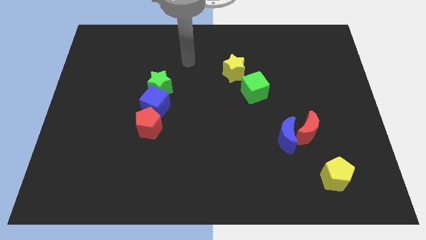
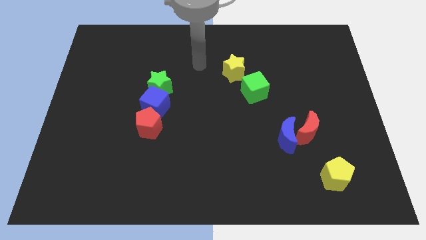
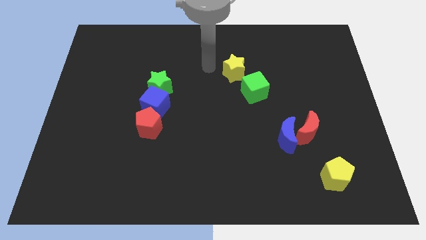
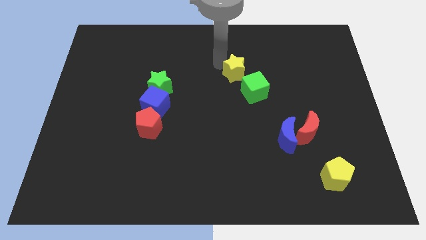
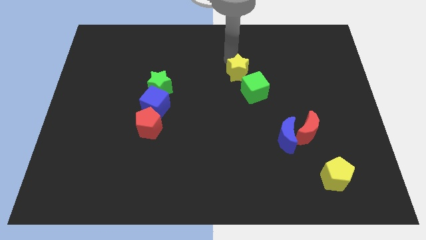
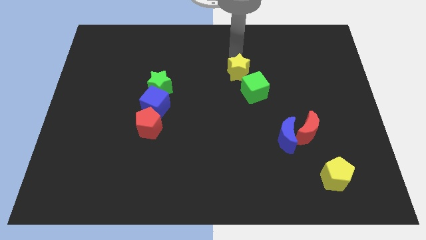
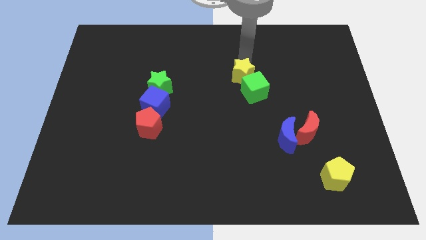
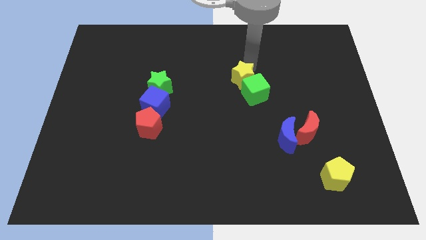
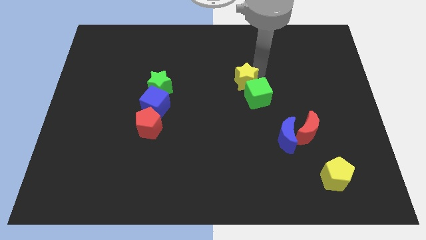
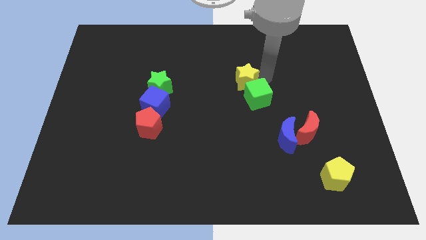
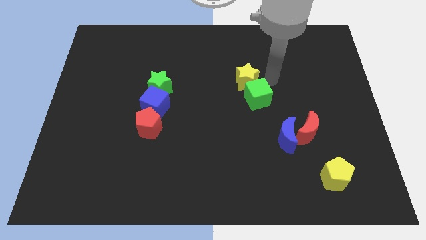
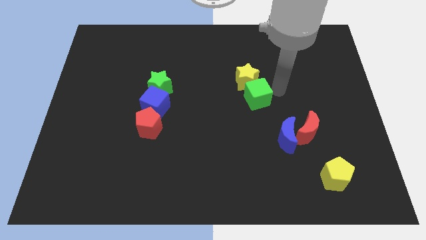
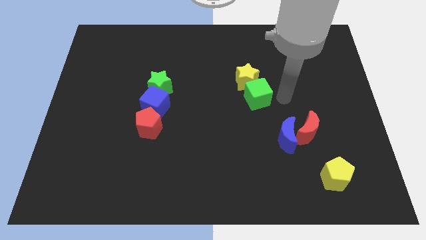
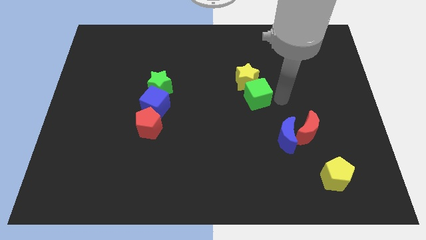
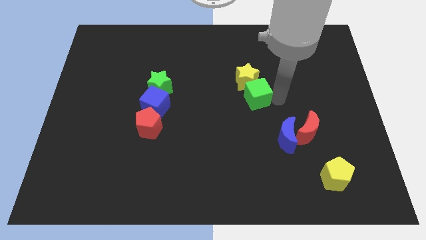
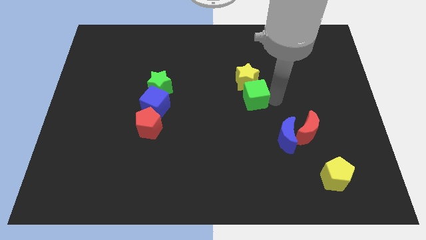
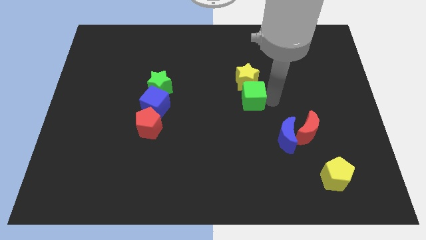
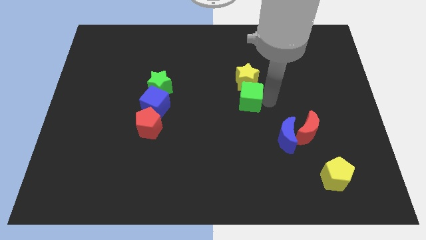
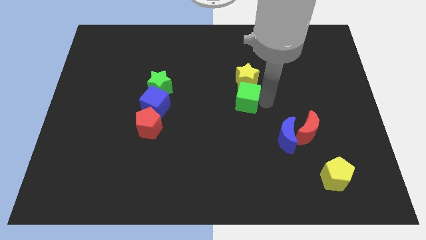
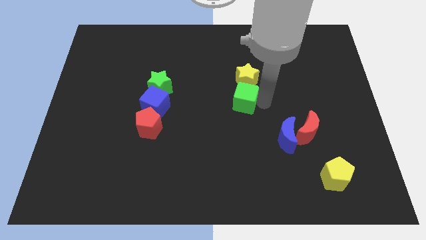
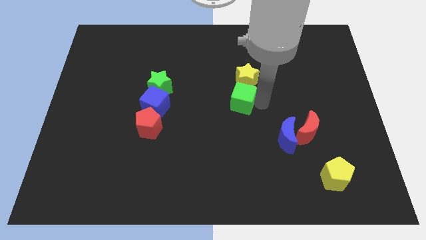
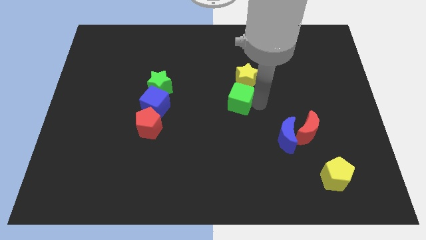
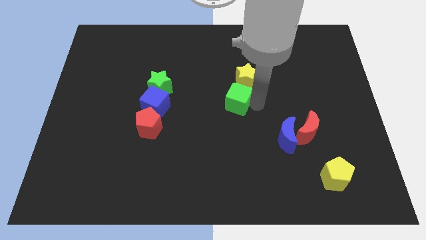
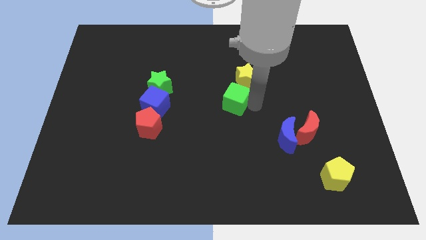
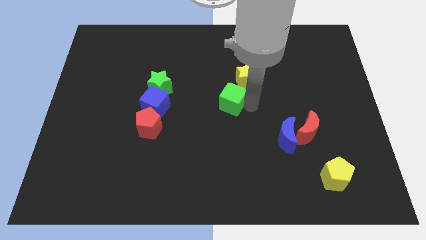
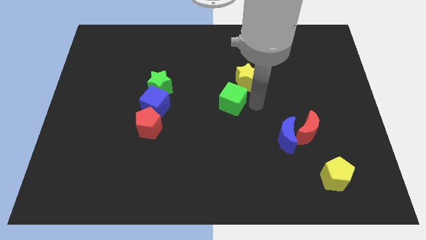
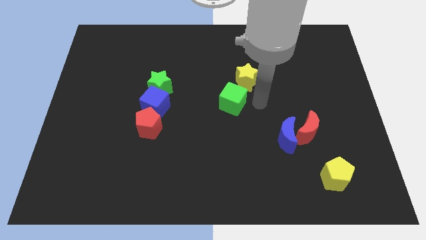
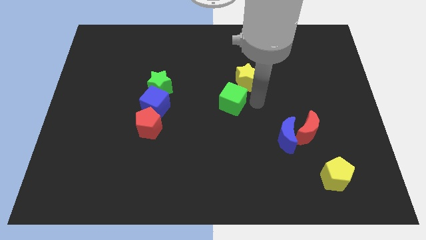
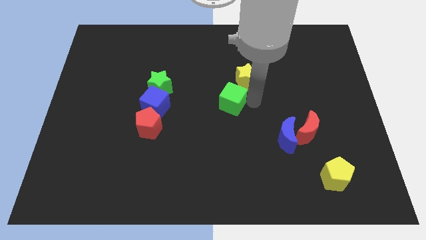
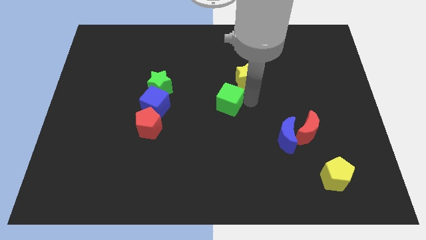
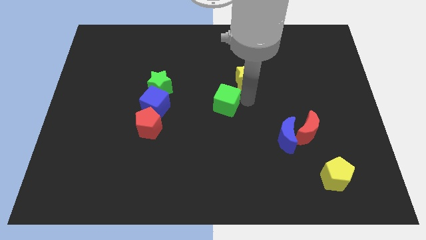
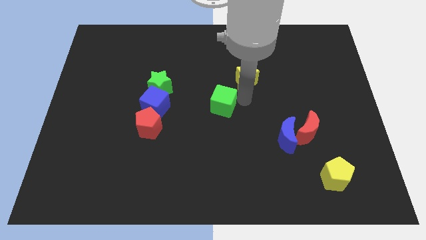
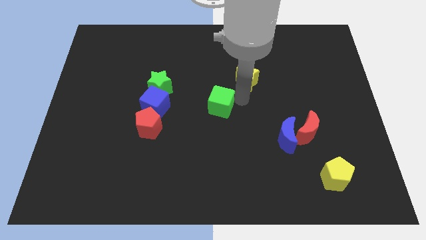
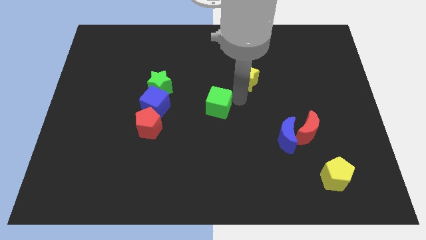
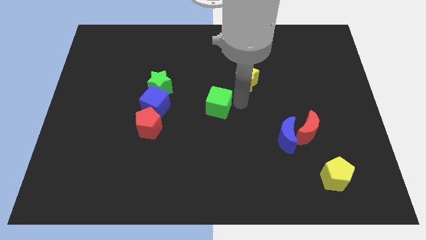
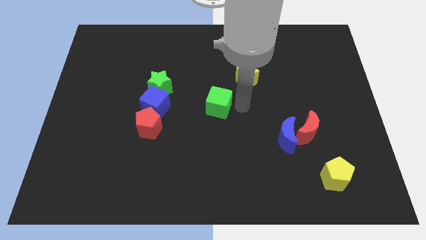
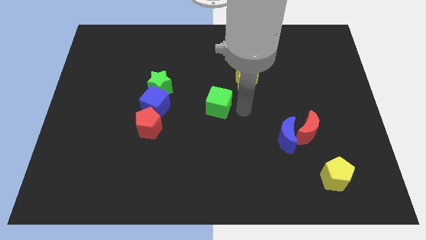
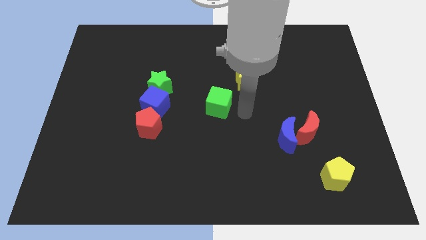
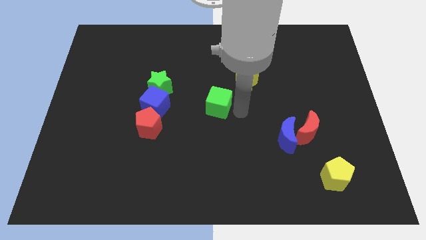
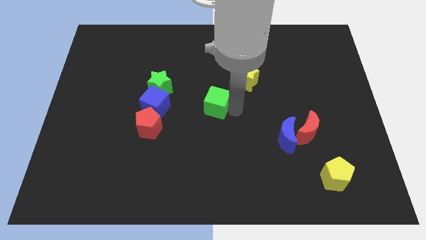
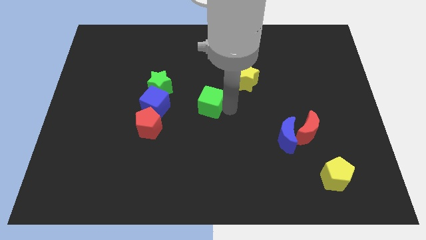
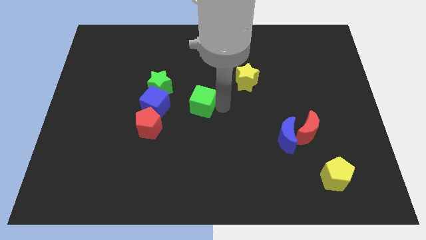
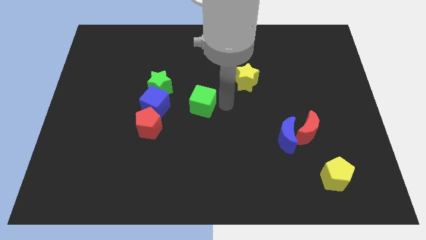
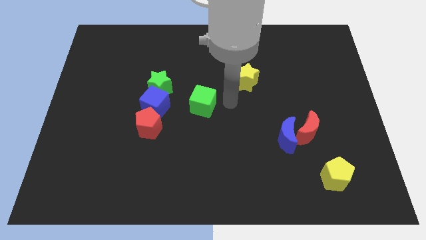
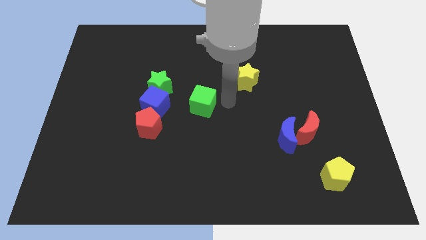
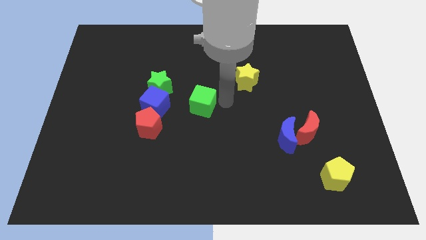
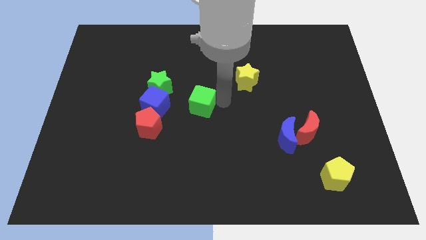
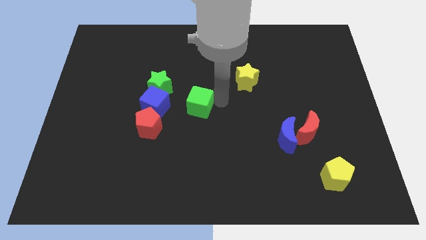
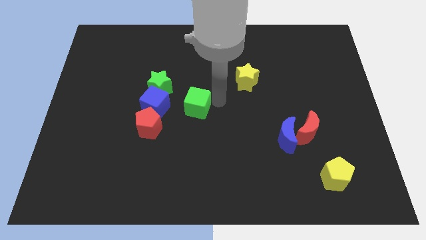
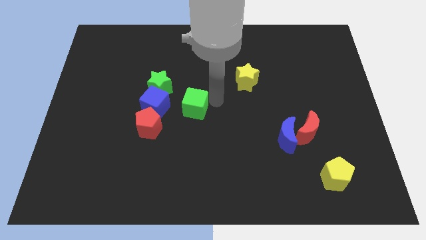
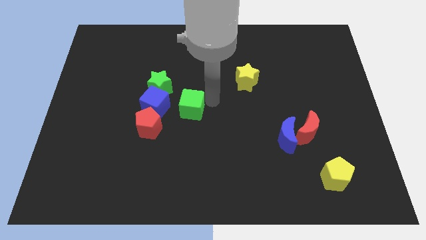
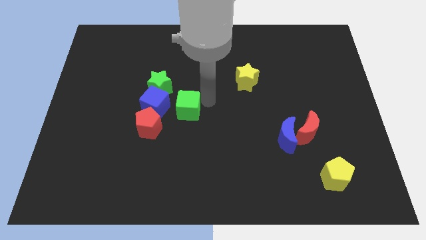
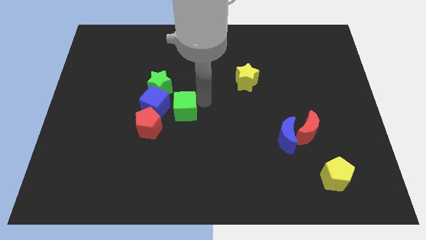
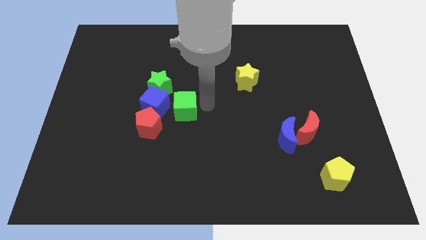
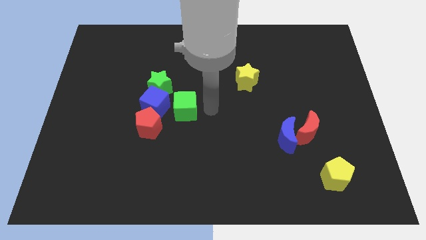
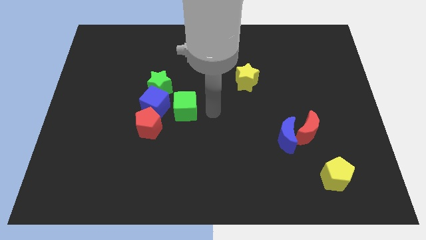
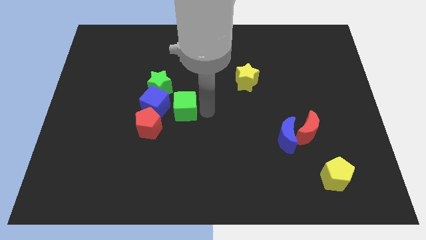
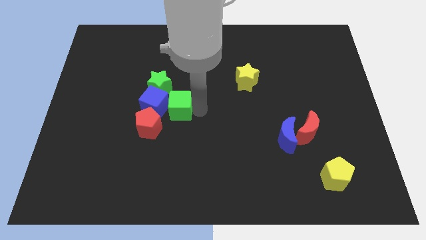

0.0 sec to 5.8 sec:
push the green cube towards the blue cube

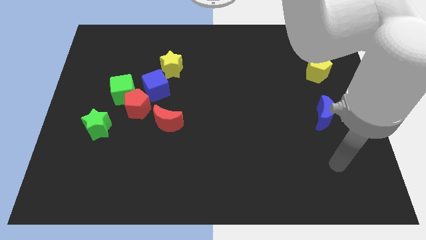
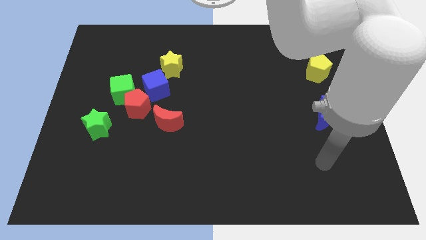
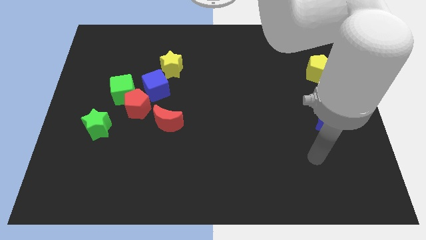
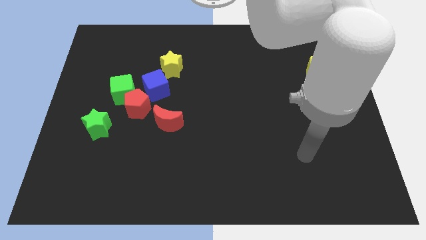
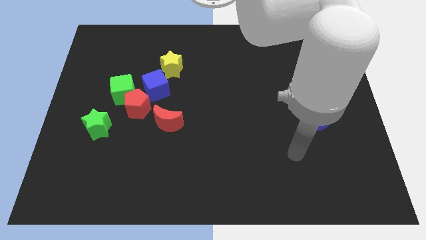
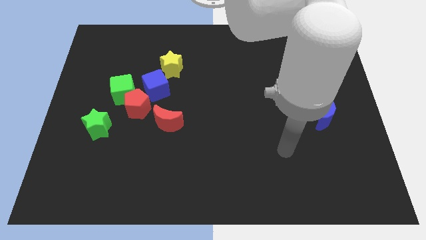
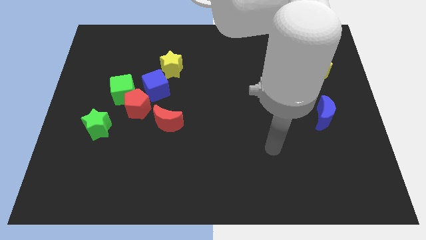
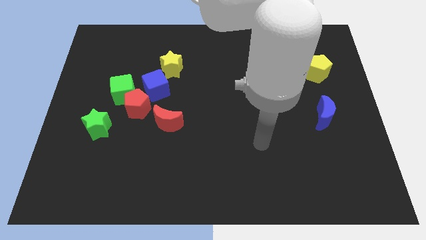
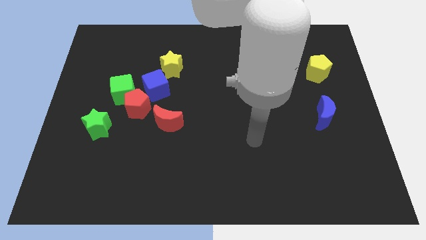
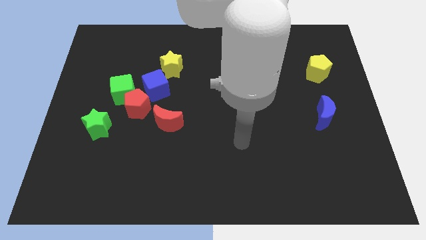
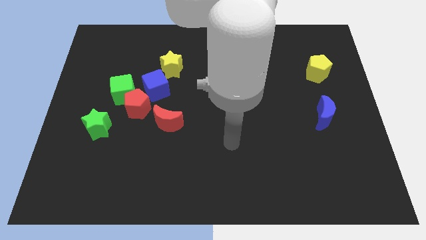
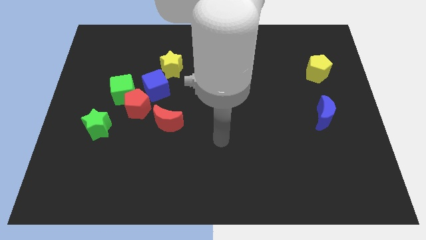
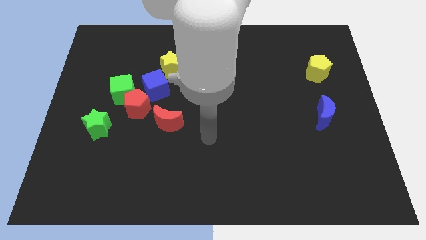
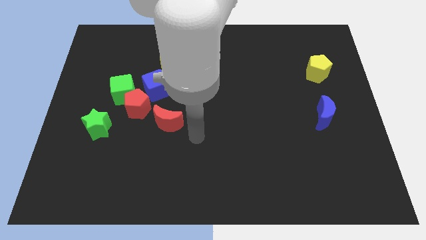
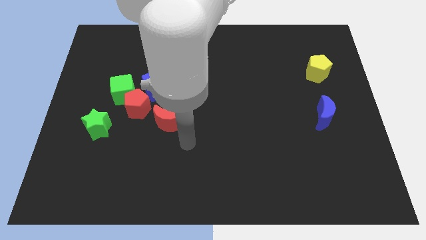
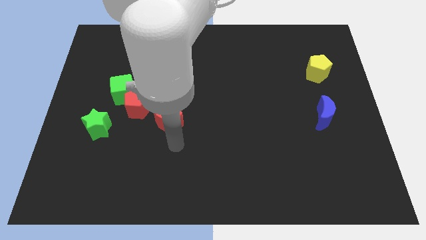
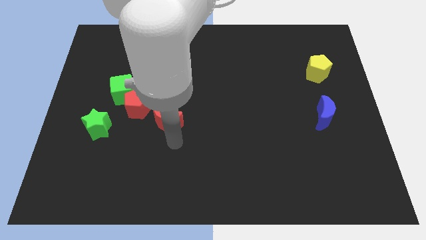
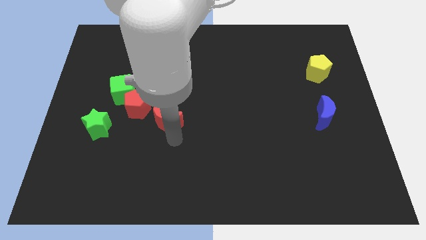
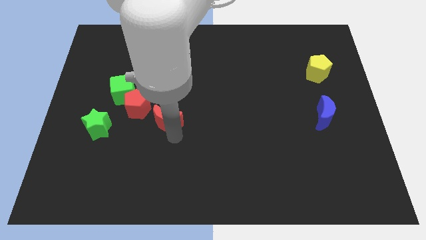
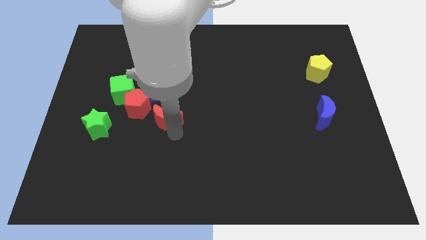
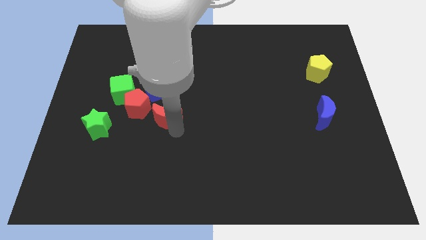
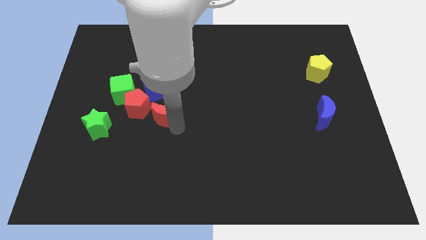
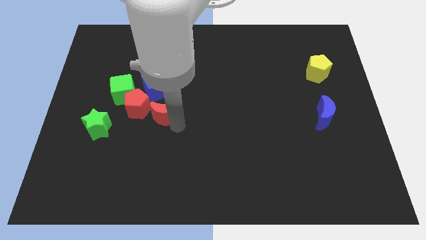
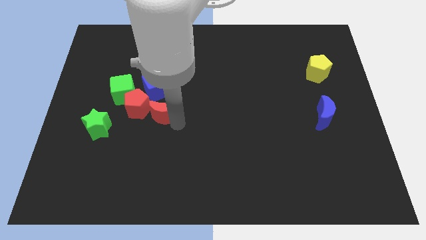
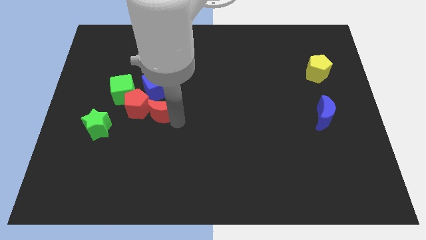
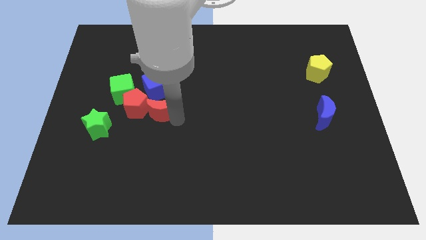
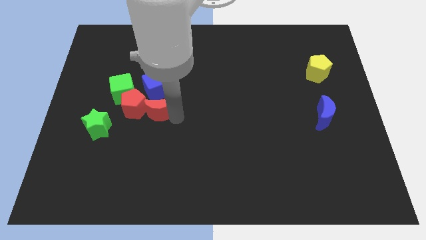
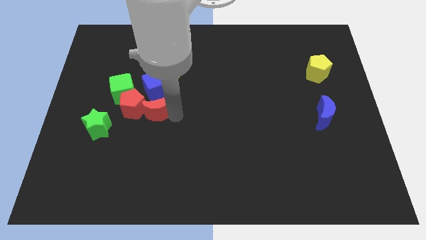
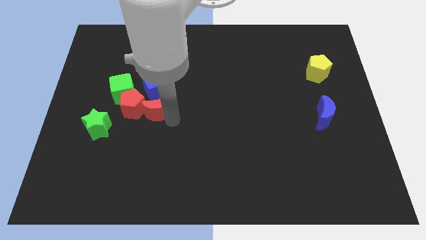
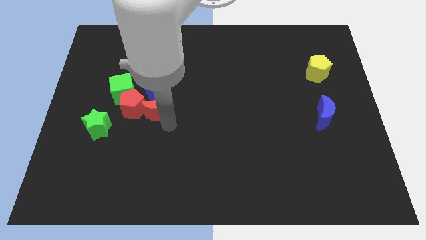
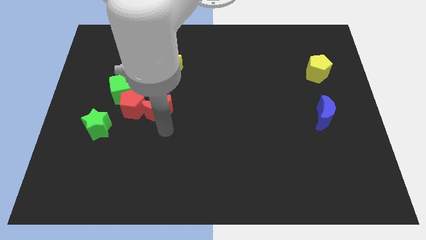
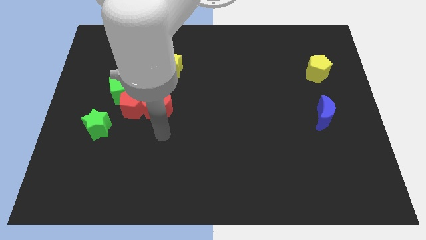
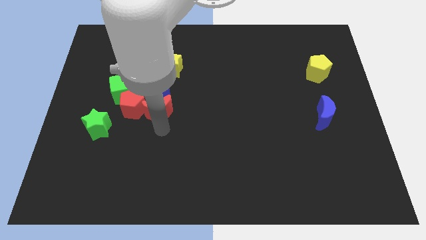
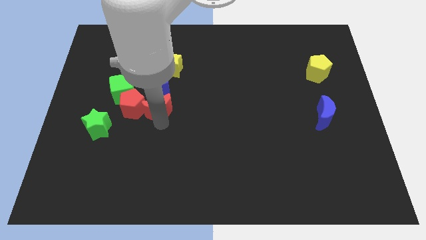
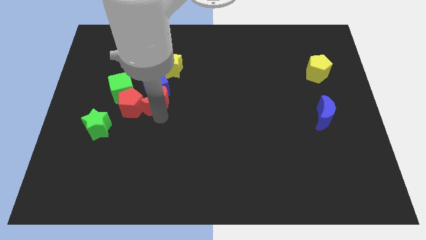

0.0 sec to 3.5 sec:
put the red moon towards the blue cube
